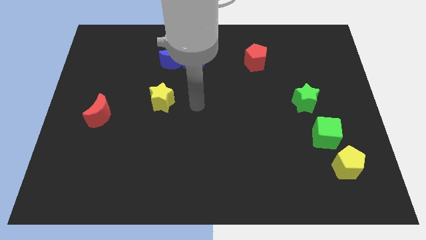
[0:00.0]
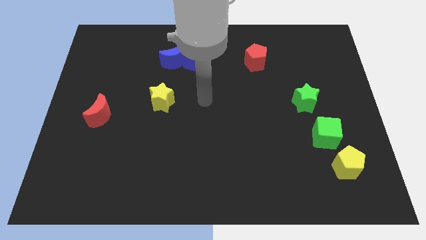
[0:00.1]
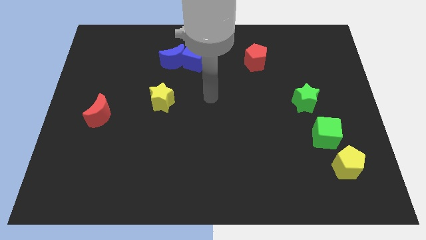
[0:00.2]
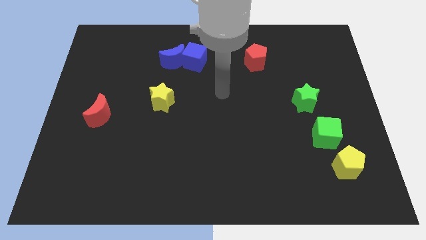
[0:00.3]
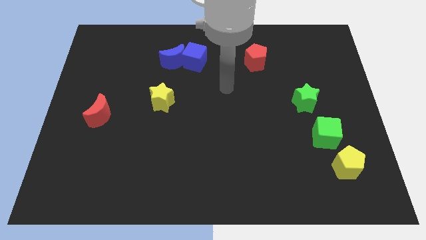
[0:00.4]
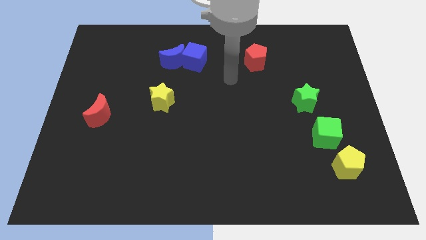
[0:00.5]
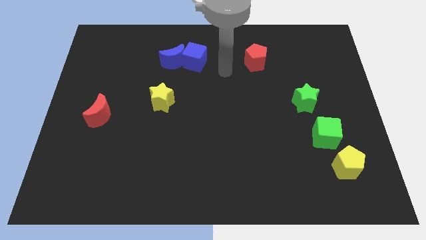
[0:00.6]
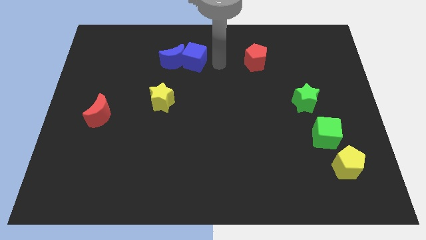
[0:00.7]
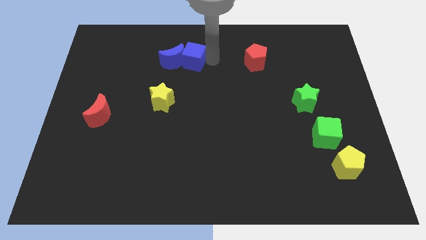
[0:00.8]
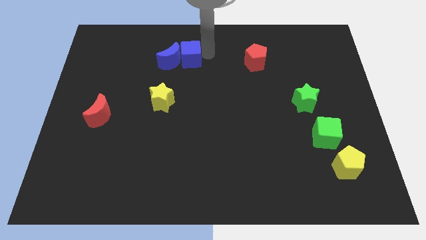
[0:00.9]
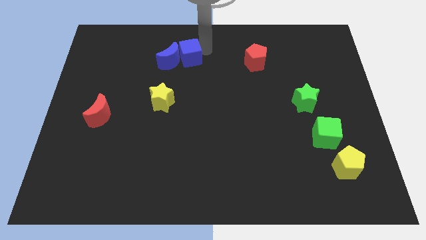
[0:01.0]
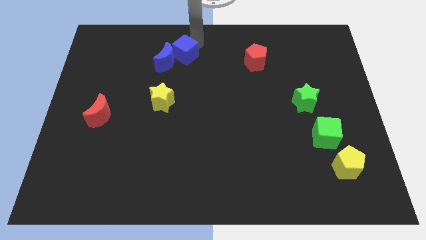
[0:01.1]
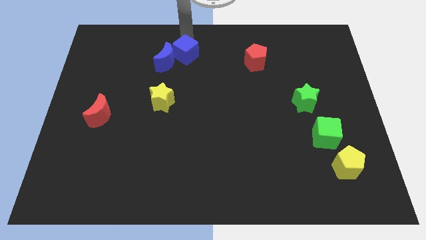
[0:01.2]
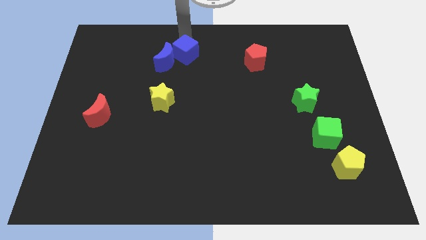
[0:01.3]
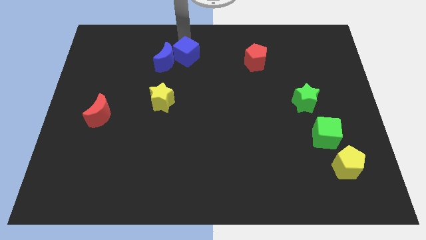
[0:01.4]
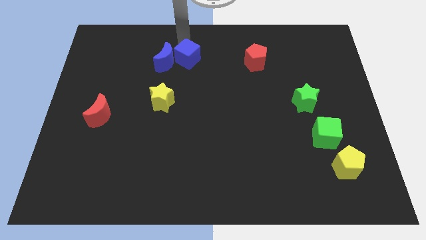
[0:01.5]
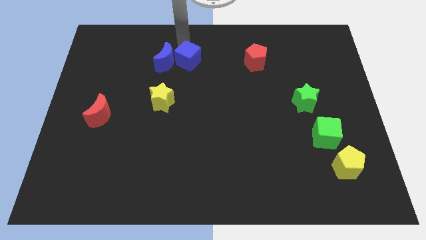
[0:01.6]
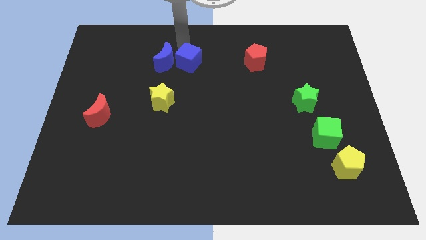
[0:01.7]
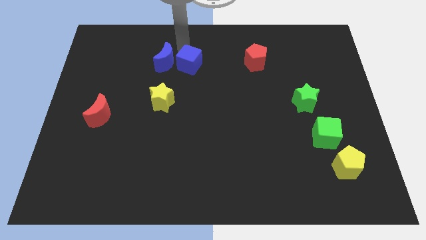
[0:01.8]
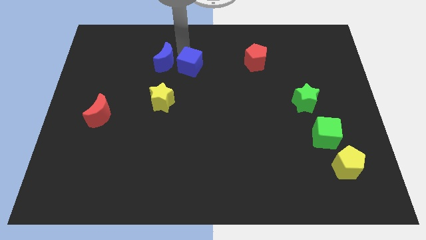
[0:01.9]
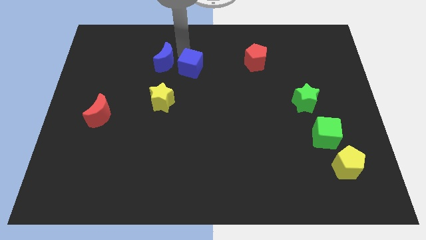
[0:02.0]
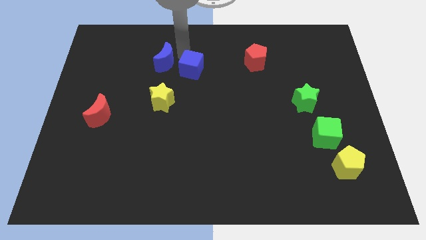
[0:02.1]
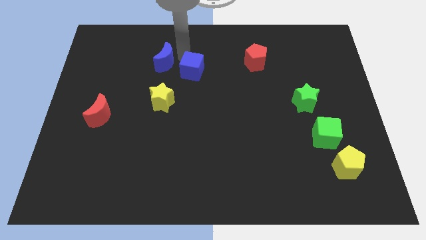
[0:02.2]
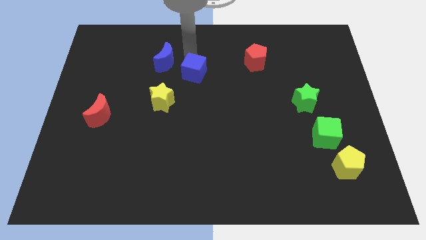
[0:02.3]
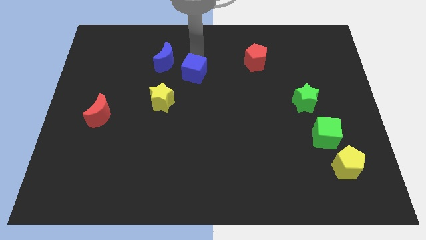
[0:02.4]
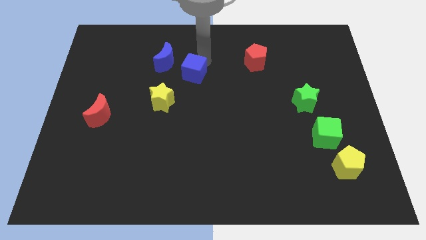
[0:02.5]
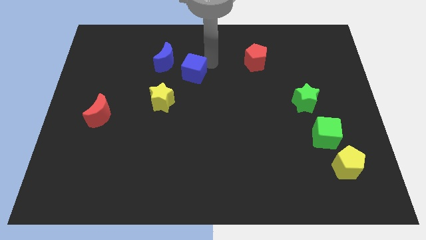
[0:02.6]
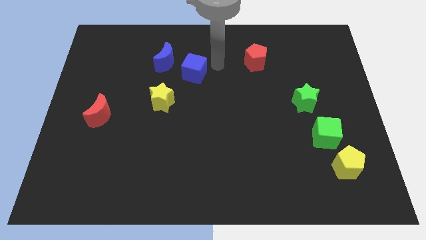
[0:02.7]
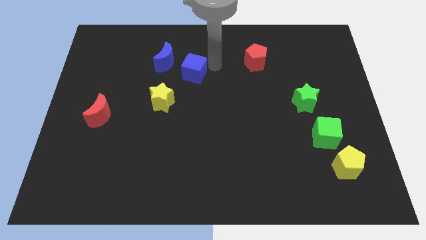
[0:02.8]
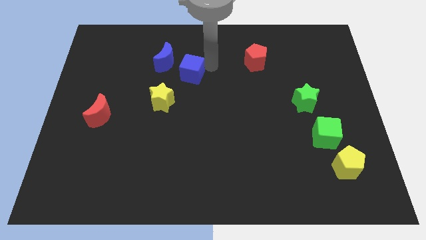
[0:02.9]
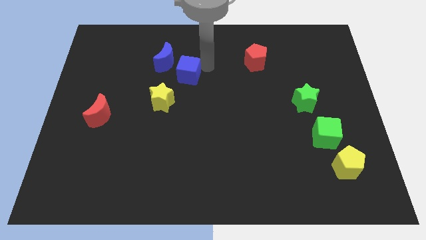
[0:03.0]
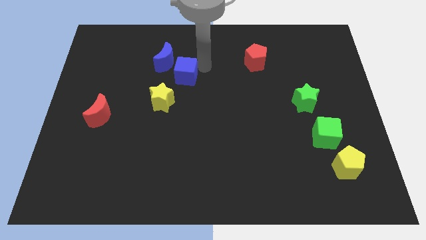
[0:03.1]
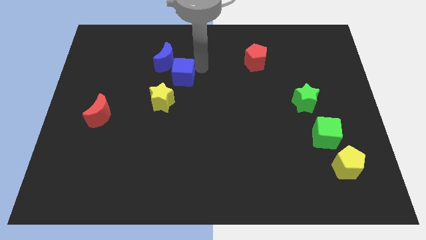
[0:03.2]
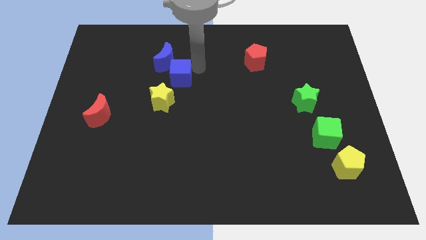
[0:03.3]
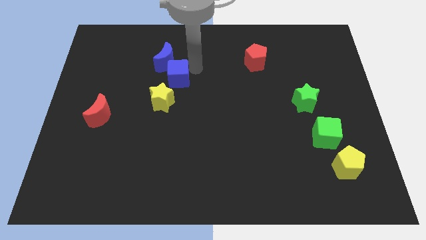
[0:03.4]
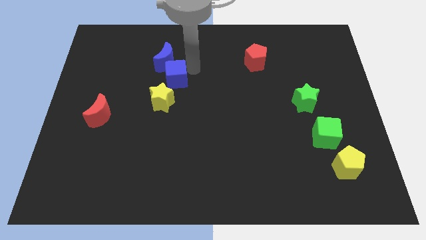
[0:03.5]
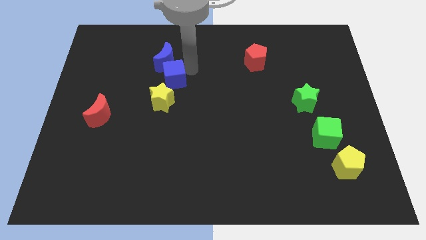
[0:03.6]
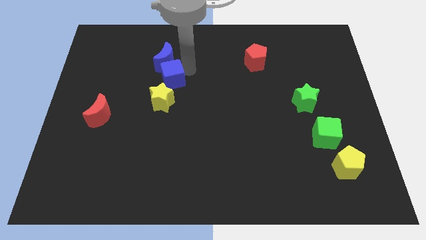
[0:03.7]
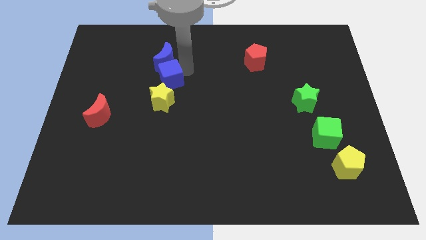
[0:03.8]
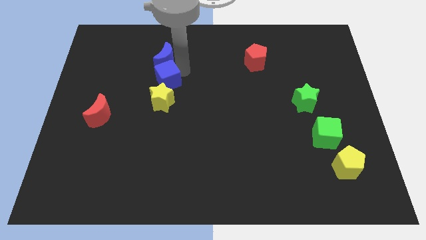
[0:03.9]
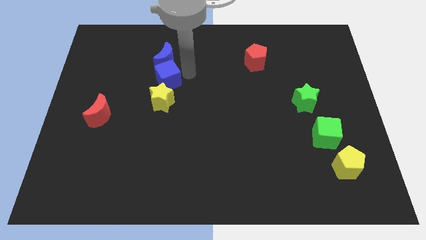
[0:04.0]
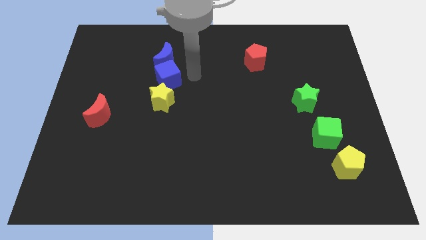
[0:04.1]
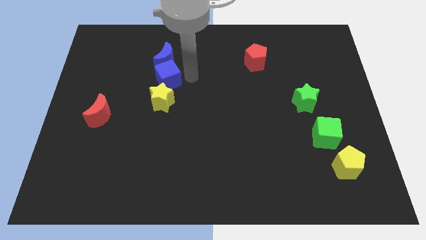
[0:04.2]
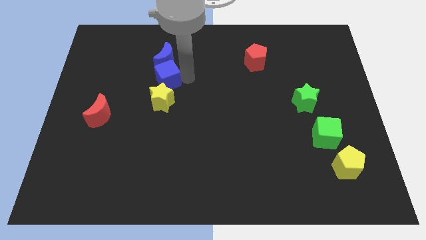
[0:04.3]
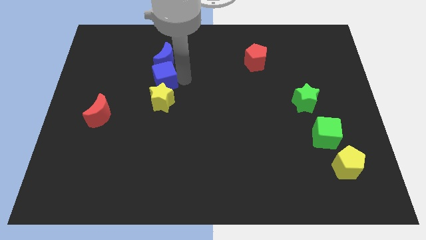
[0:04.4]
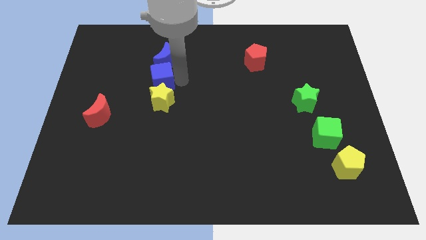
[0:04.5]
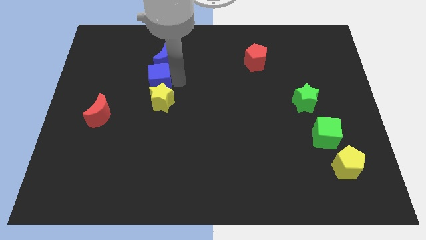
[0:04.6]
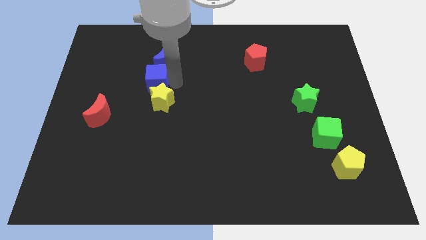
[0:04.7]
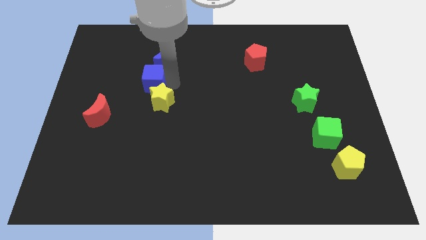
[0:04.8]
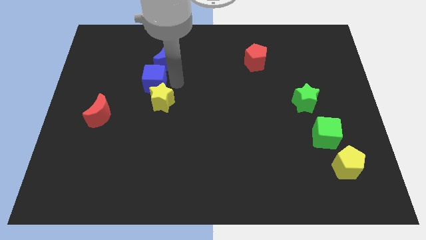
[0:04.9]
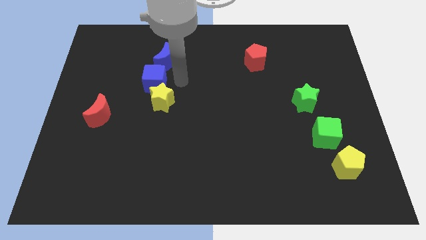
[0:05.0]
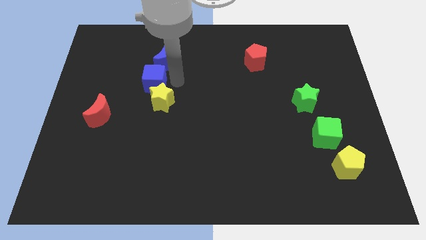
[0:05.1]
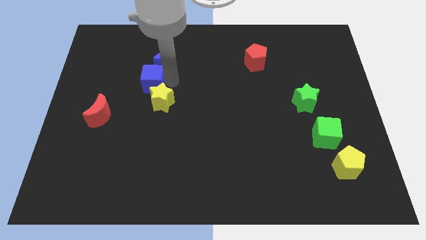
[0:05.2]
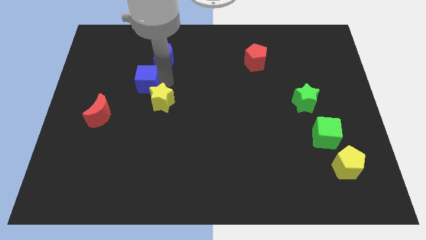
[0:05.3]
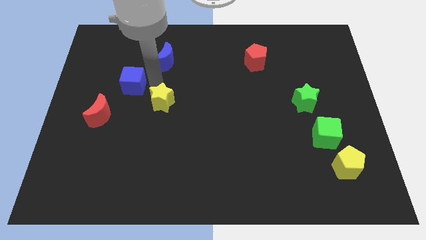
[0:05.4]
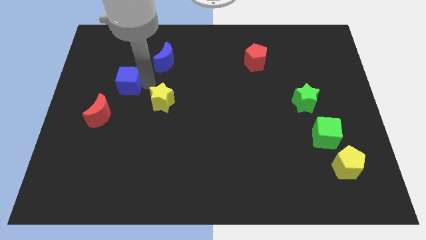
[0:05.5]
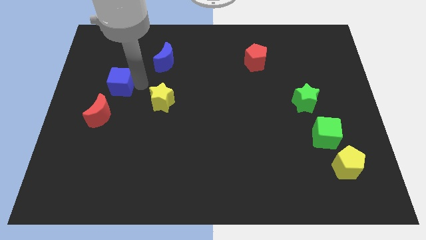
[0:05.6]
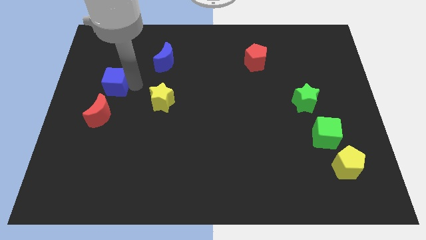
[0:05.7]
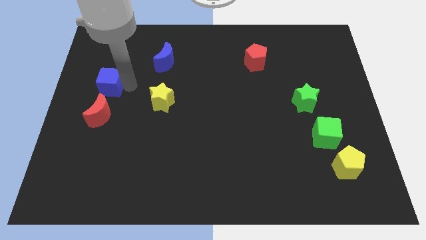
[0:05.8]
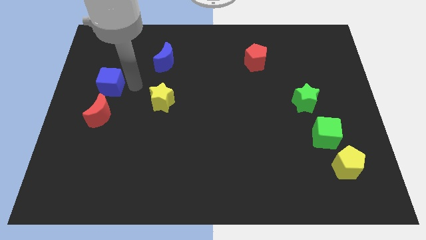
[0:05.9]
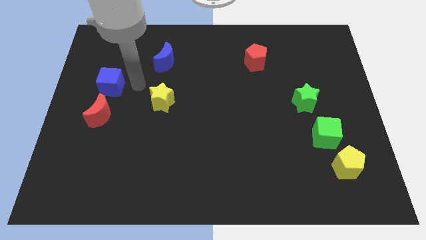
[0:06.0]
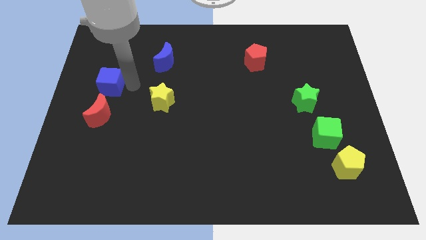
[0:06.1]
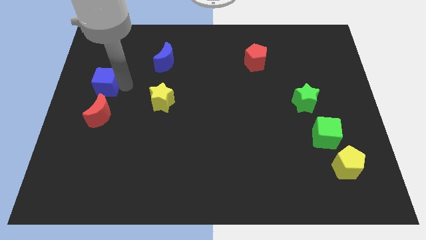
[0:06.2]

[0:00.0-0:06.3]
slide the blue cube to the left side of the board
